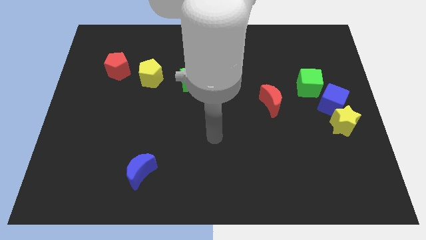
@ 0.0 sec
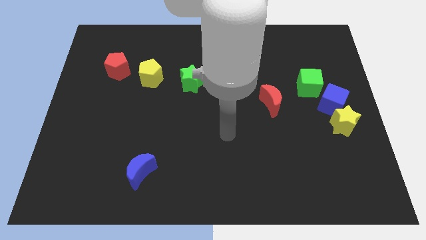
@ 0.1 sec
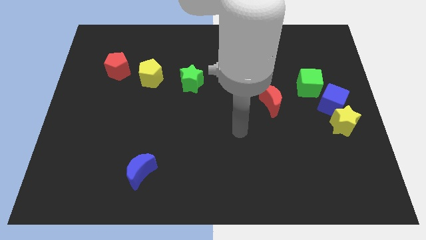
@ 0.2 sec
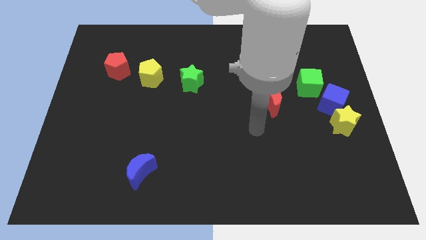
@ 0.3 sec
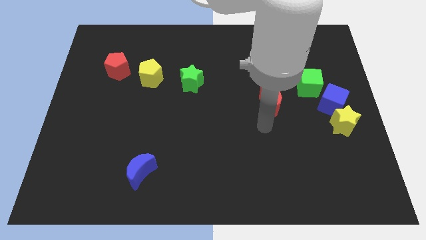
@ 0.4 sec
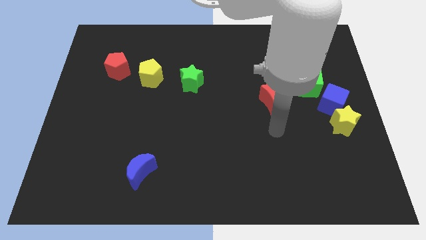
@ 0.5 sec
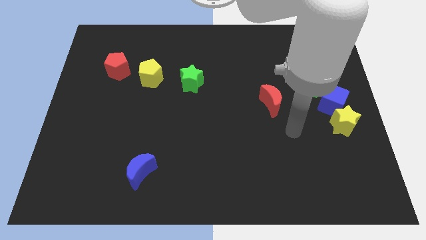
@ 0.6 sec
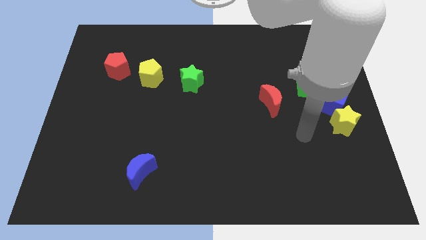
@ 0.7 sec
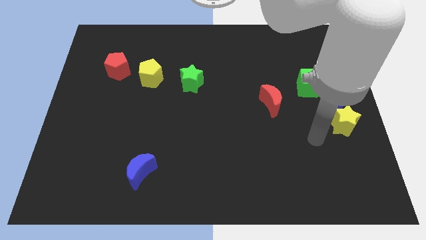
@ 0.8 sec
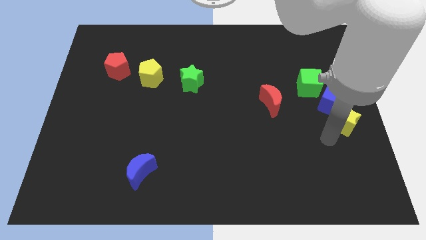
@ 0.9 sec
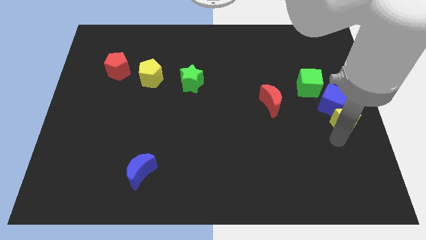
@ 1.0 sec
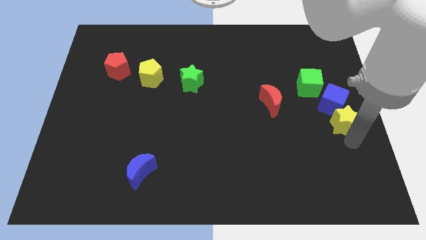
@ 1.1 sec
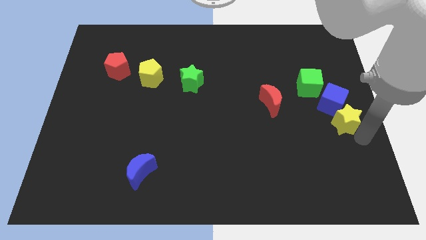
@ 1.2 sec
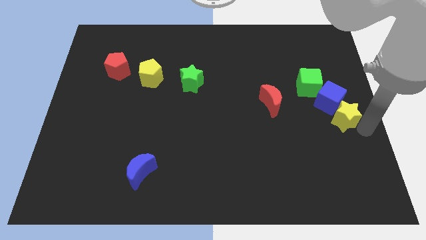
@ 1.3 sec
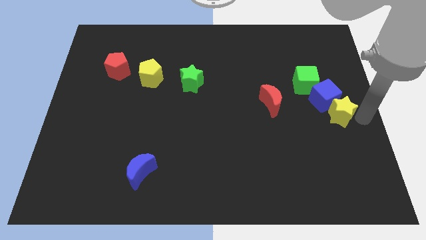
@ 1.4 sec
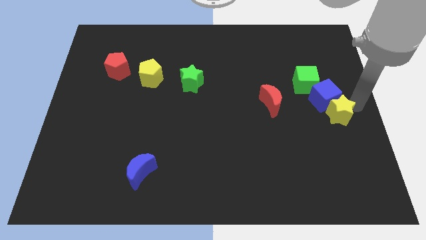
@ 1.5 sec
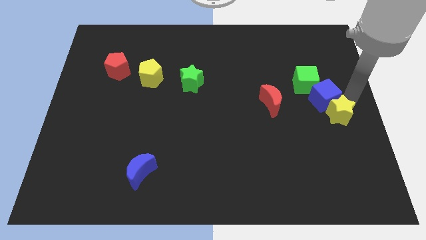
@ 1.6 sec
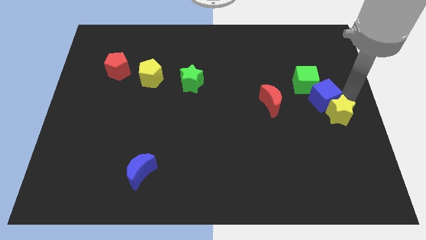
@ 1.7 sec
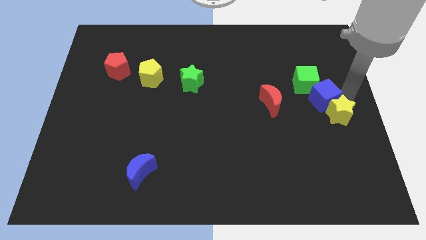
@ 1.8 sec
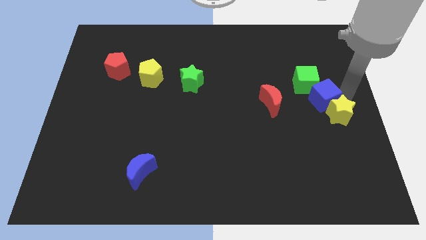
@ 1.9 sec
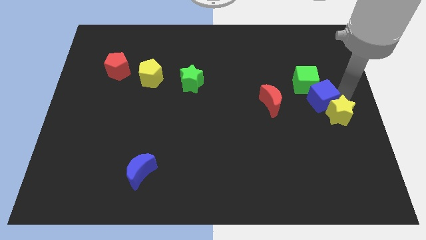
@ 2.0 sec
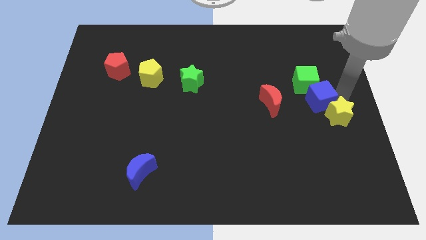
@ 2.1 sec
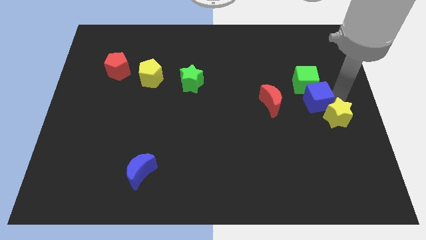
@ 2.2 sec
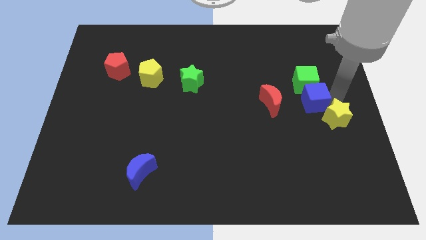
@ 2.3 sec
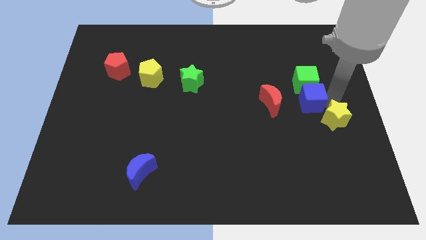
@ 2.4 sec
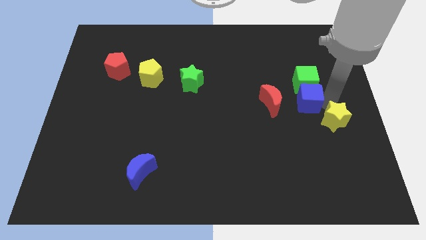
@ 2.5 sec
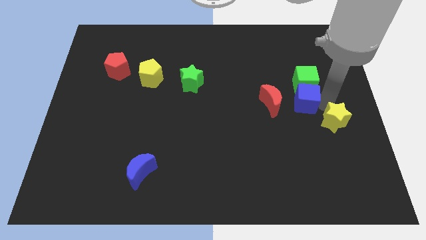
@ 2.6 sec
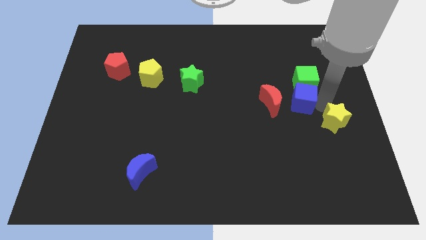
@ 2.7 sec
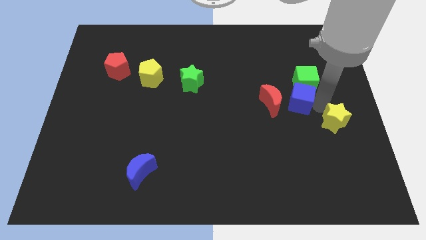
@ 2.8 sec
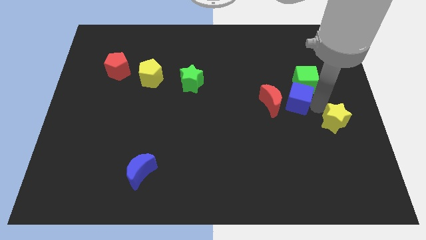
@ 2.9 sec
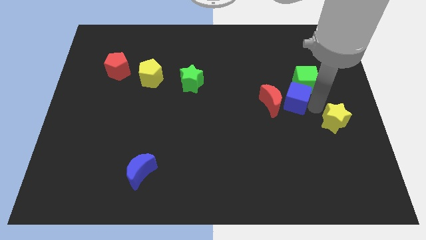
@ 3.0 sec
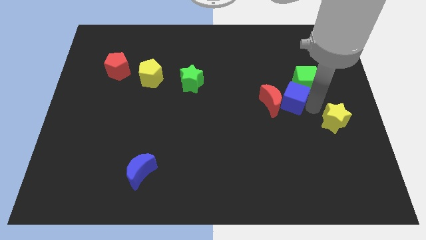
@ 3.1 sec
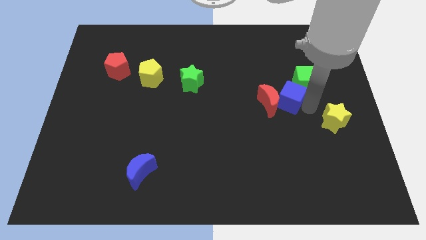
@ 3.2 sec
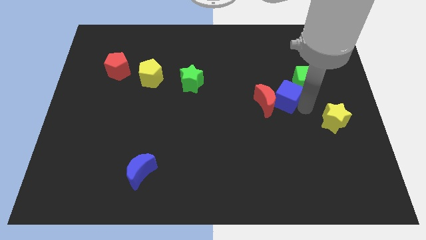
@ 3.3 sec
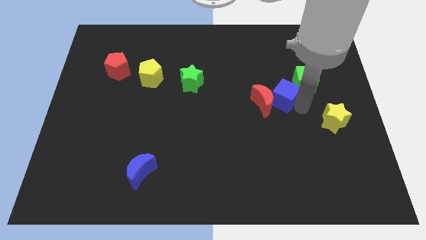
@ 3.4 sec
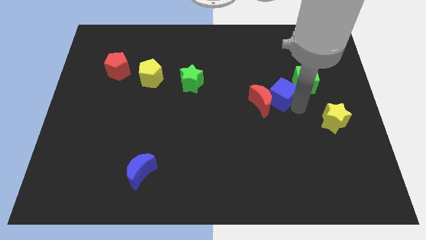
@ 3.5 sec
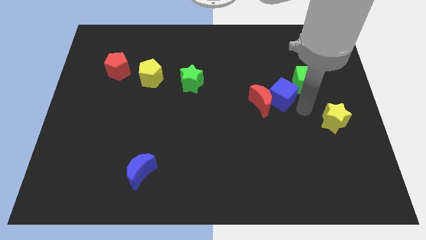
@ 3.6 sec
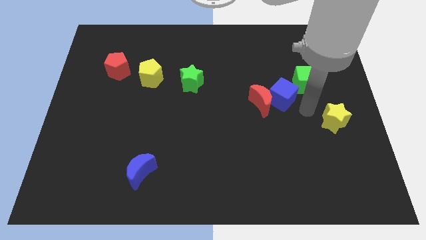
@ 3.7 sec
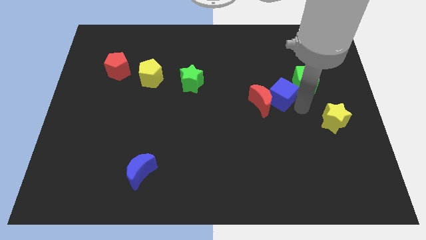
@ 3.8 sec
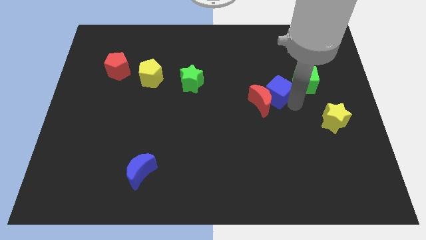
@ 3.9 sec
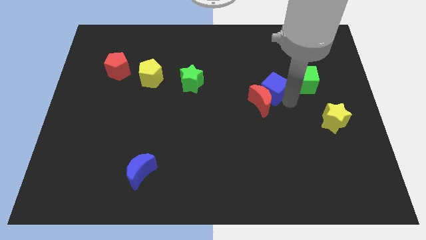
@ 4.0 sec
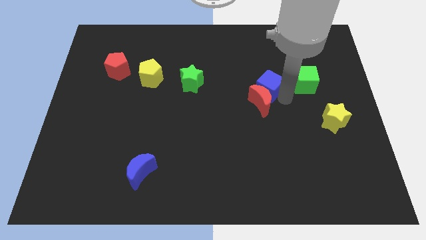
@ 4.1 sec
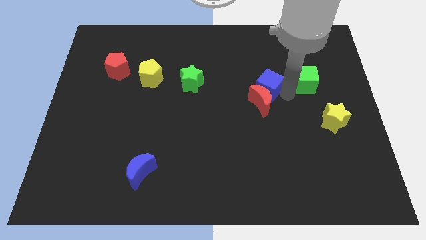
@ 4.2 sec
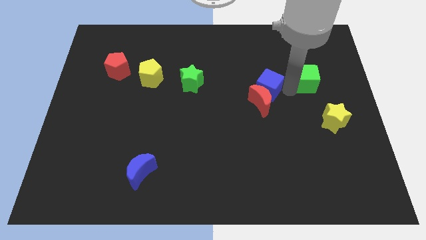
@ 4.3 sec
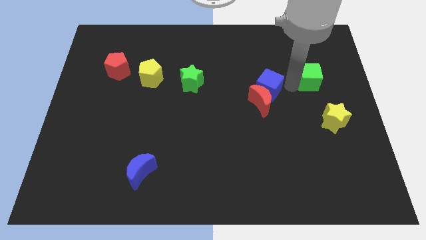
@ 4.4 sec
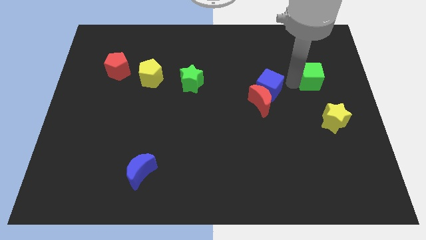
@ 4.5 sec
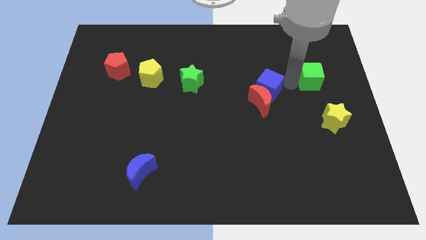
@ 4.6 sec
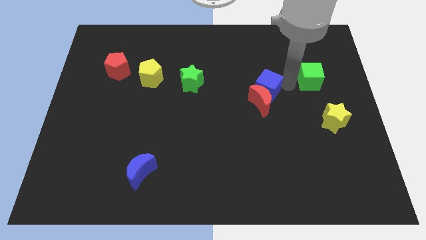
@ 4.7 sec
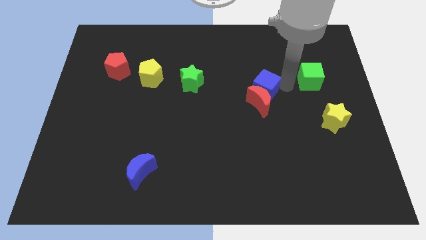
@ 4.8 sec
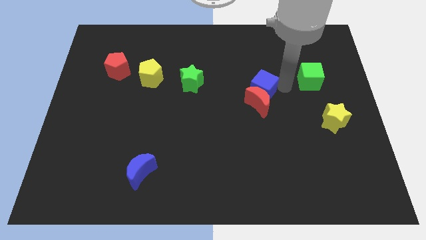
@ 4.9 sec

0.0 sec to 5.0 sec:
push the blue cube to the center

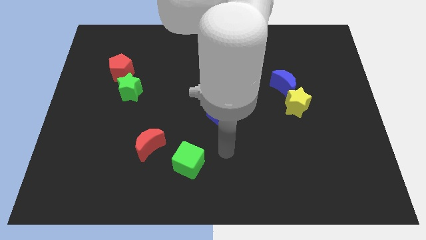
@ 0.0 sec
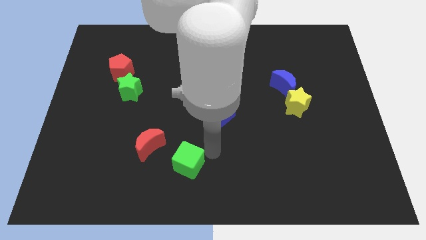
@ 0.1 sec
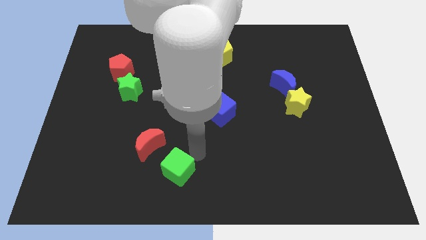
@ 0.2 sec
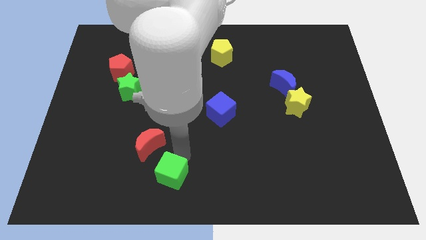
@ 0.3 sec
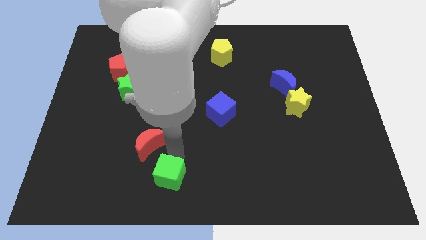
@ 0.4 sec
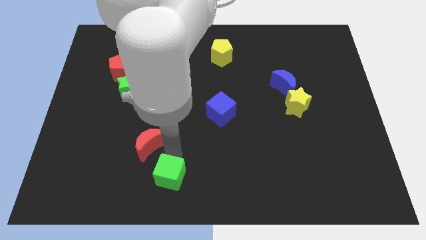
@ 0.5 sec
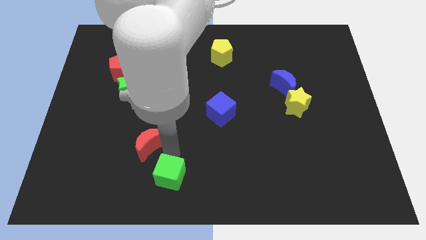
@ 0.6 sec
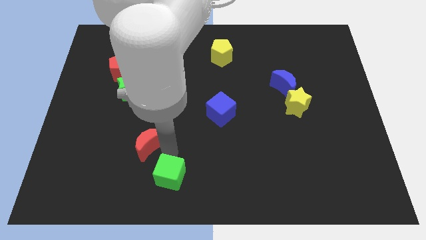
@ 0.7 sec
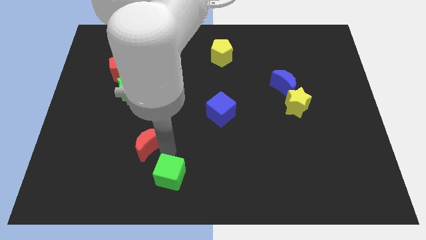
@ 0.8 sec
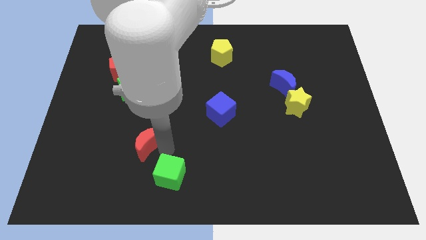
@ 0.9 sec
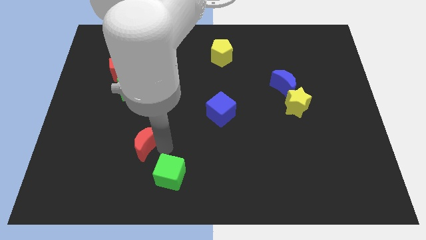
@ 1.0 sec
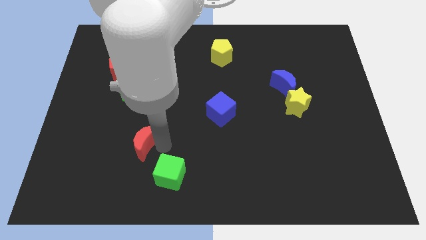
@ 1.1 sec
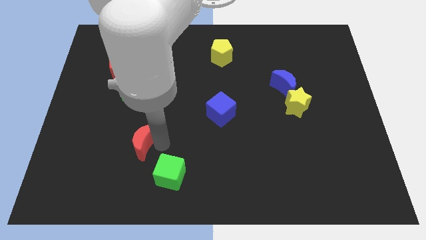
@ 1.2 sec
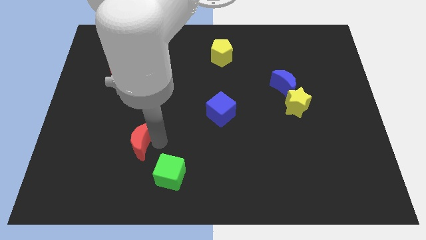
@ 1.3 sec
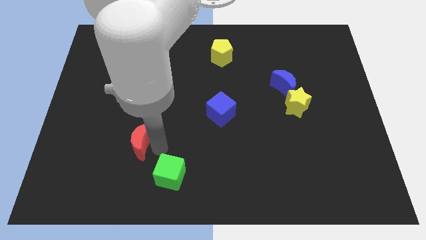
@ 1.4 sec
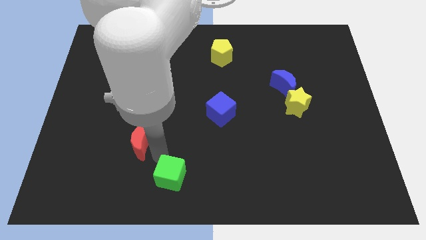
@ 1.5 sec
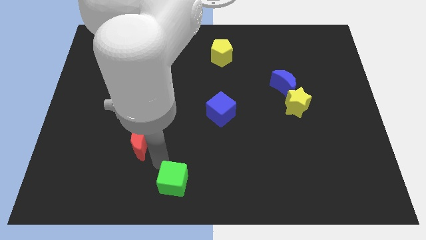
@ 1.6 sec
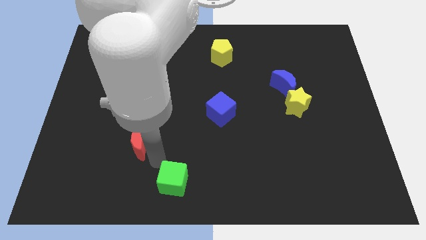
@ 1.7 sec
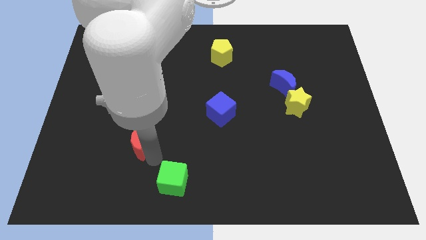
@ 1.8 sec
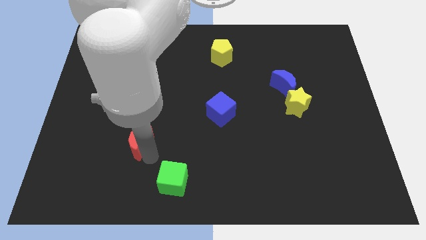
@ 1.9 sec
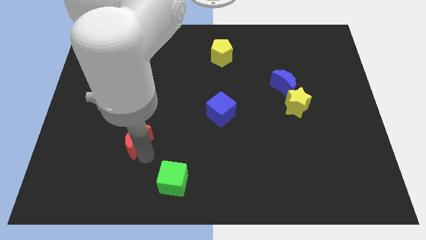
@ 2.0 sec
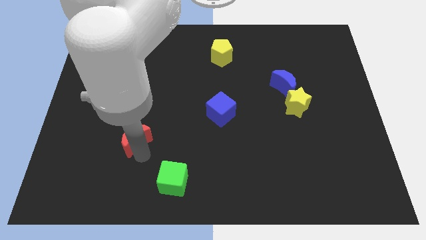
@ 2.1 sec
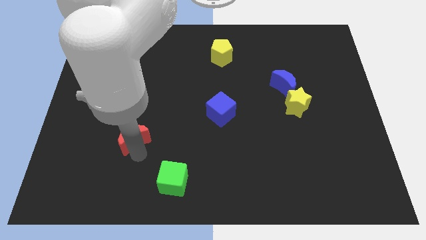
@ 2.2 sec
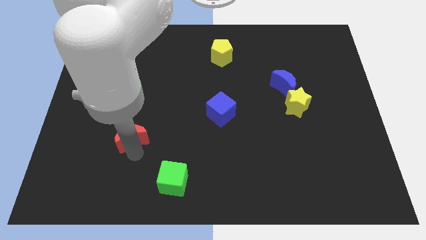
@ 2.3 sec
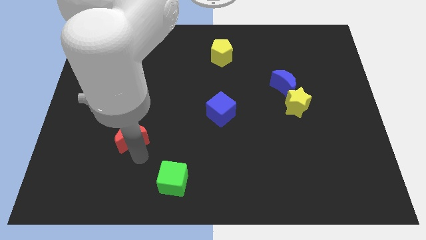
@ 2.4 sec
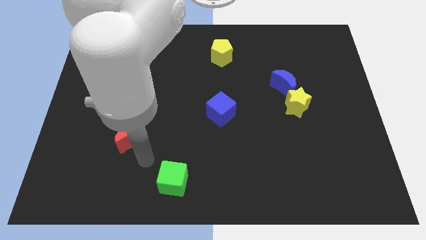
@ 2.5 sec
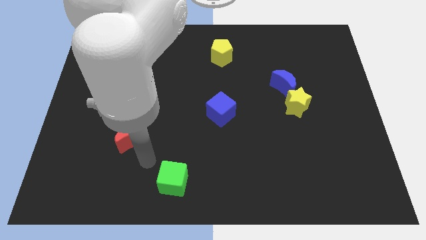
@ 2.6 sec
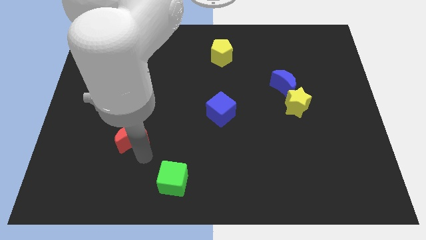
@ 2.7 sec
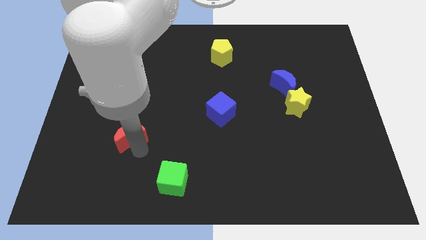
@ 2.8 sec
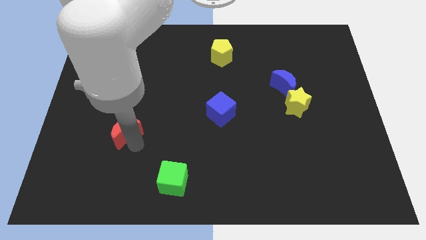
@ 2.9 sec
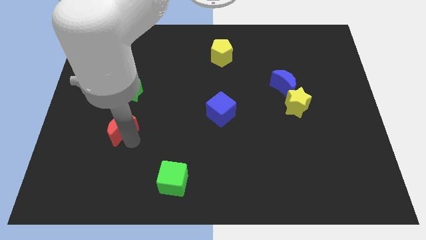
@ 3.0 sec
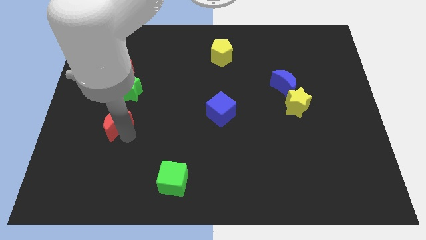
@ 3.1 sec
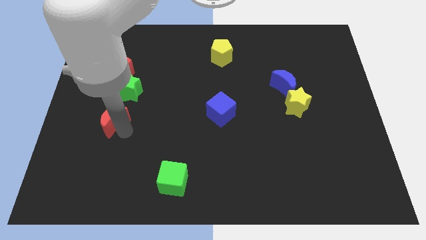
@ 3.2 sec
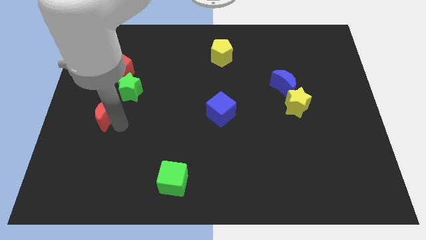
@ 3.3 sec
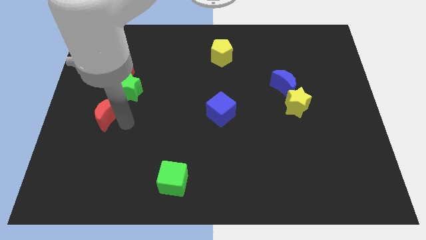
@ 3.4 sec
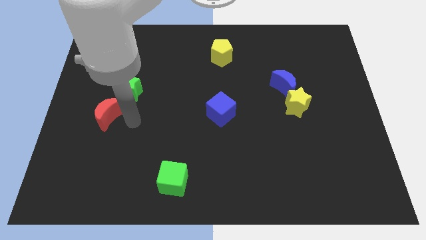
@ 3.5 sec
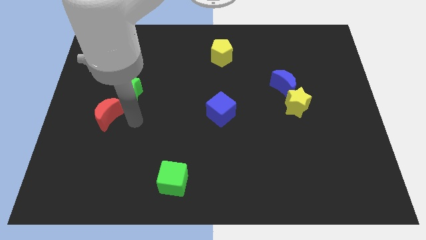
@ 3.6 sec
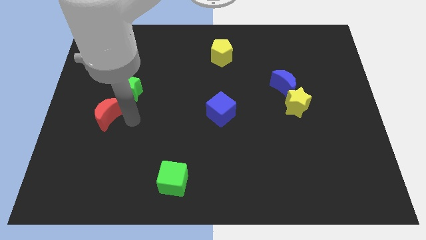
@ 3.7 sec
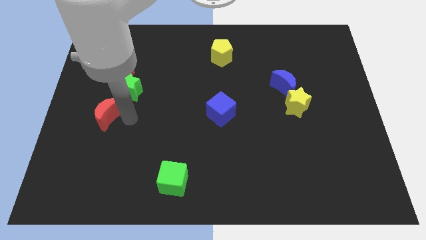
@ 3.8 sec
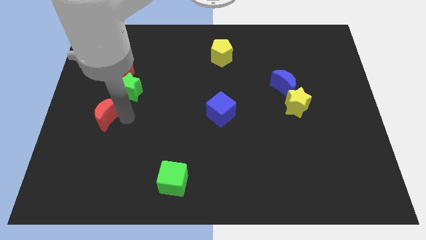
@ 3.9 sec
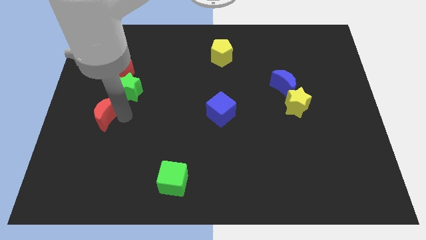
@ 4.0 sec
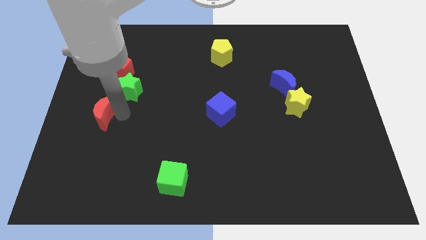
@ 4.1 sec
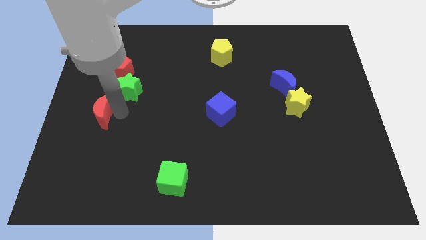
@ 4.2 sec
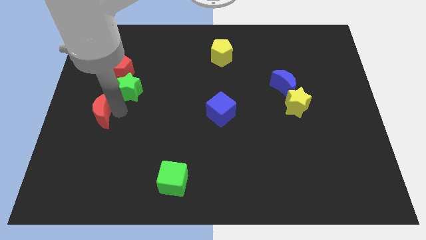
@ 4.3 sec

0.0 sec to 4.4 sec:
slide the red moon to the center left
